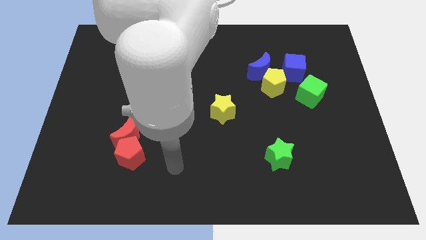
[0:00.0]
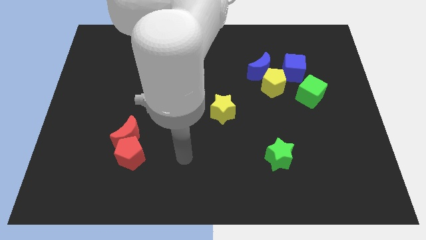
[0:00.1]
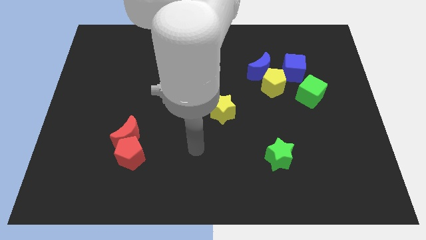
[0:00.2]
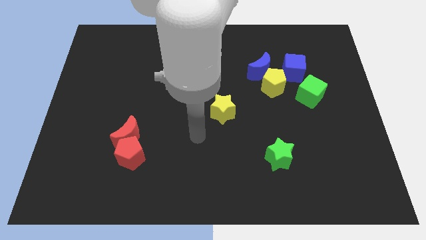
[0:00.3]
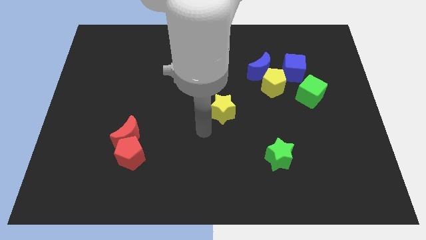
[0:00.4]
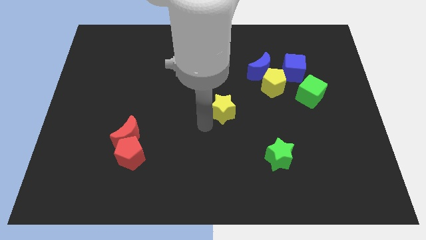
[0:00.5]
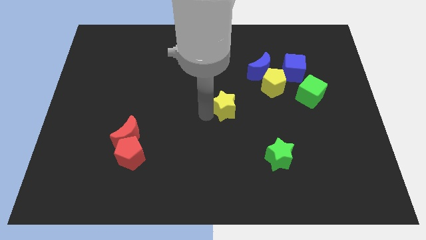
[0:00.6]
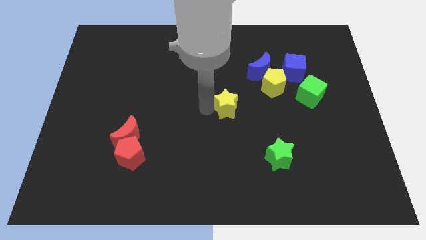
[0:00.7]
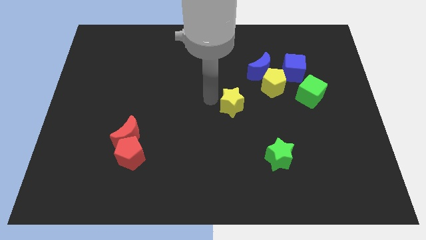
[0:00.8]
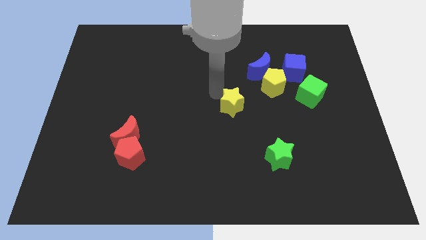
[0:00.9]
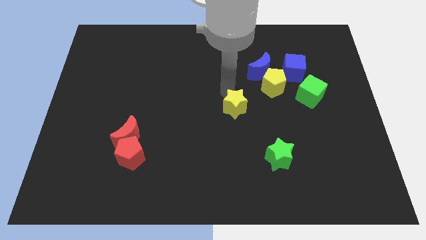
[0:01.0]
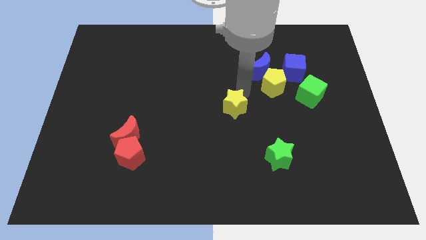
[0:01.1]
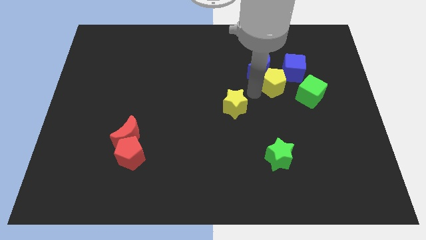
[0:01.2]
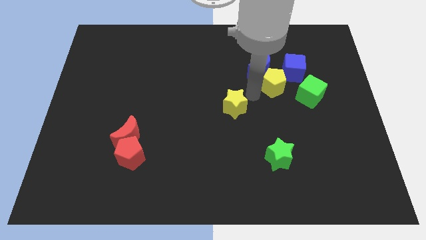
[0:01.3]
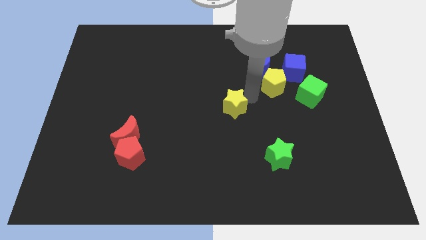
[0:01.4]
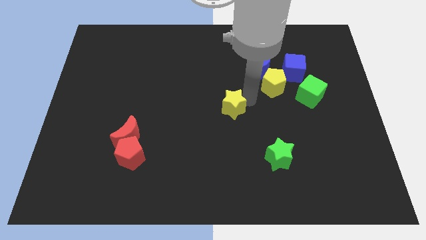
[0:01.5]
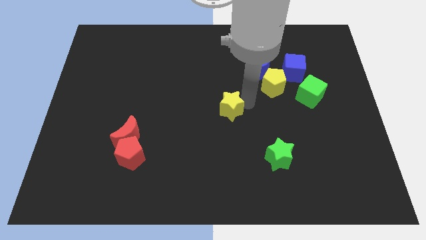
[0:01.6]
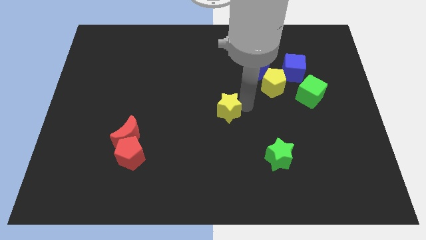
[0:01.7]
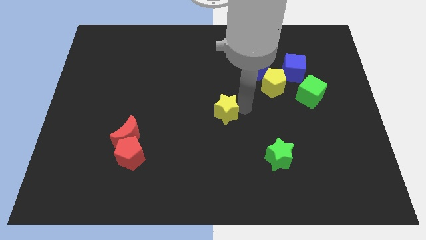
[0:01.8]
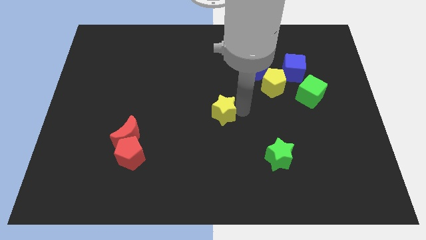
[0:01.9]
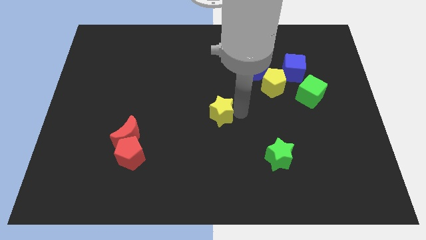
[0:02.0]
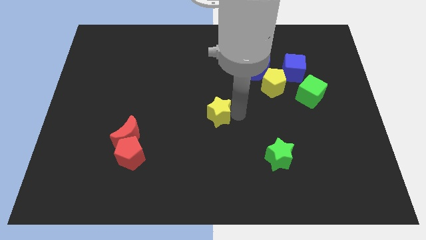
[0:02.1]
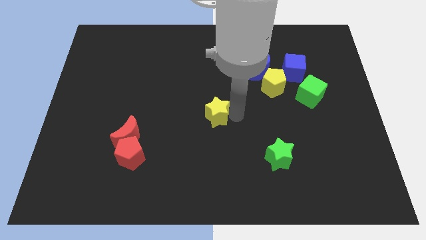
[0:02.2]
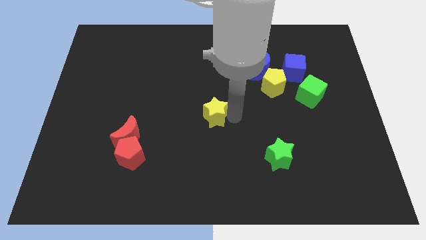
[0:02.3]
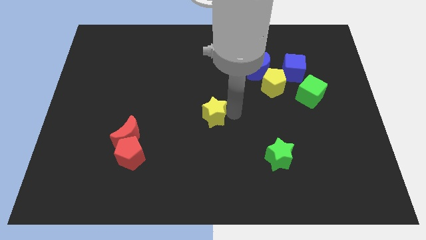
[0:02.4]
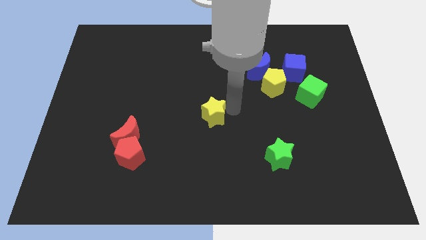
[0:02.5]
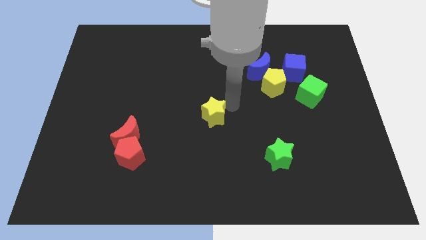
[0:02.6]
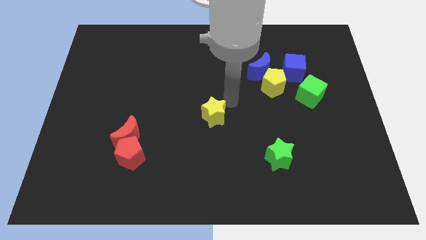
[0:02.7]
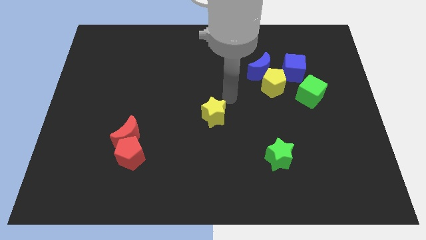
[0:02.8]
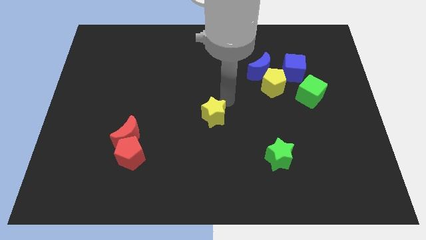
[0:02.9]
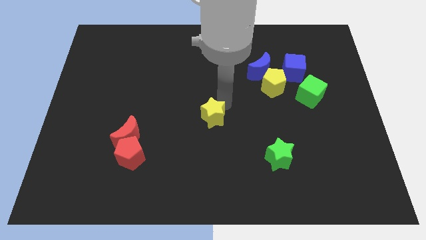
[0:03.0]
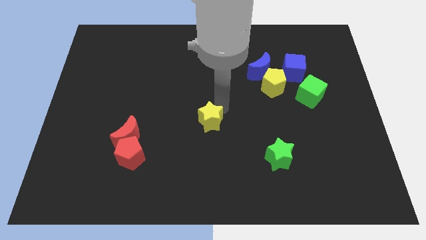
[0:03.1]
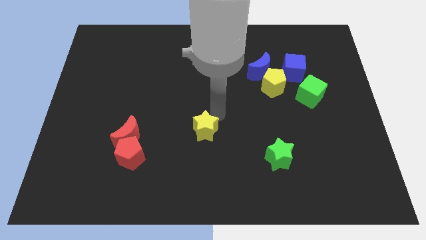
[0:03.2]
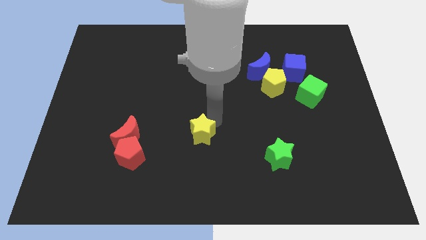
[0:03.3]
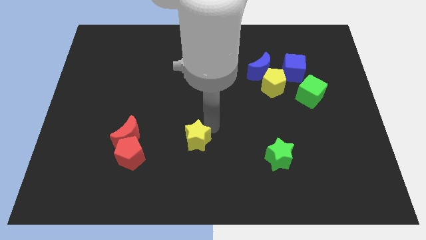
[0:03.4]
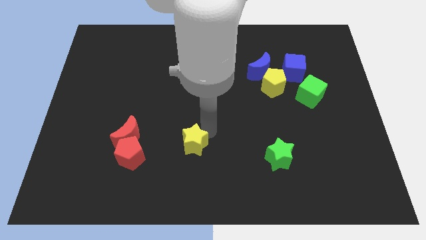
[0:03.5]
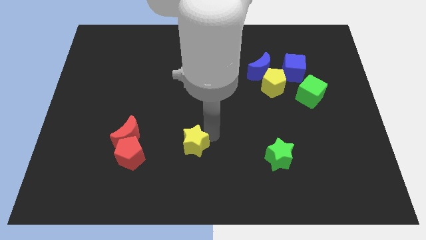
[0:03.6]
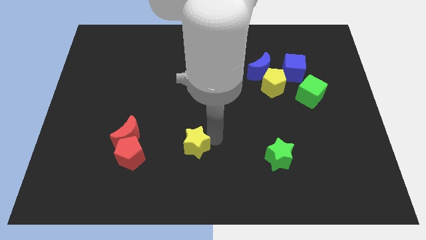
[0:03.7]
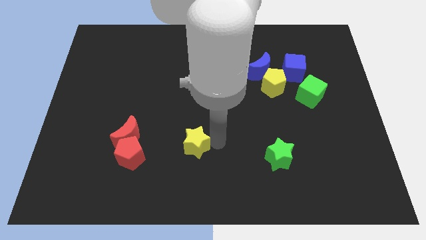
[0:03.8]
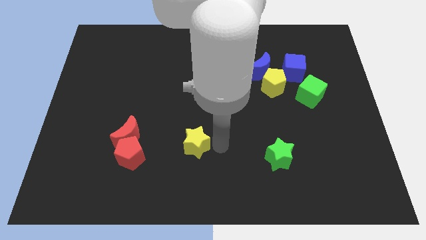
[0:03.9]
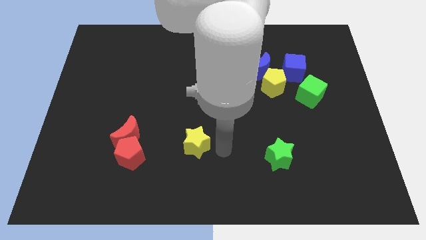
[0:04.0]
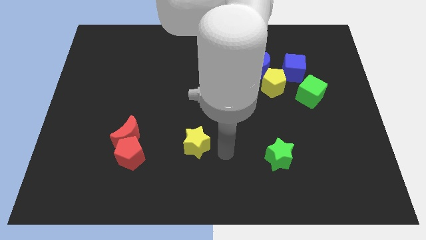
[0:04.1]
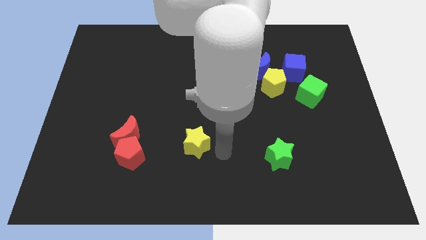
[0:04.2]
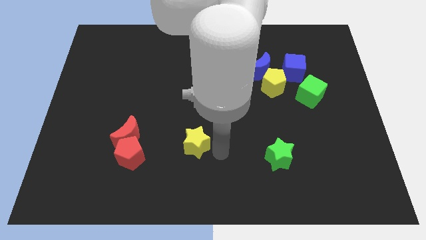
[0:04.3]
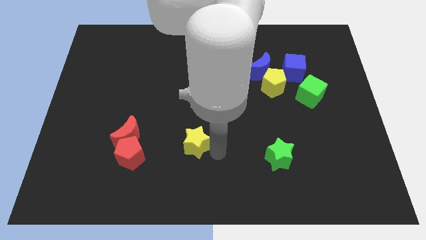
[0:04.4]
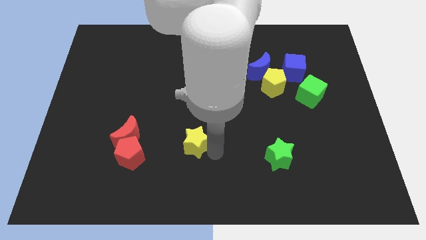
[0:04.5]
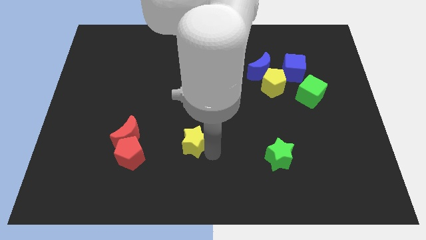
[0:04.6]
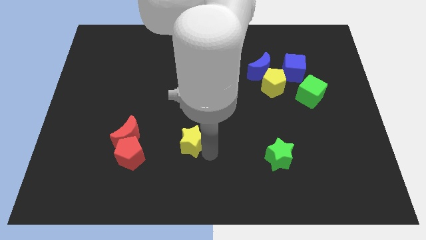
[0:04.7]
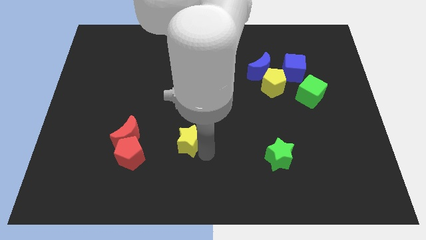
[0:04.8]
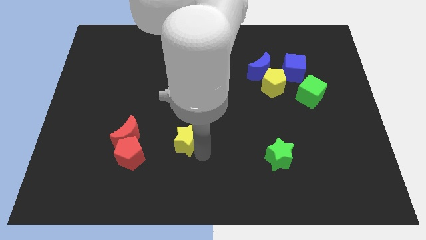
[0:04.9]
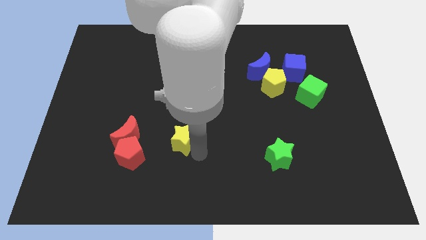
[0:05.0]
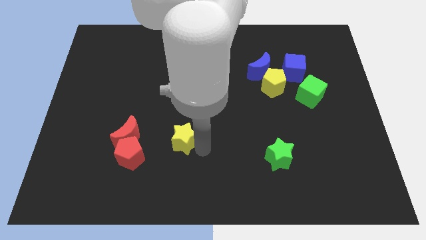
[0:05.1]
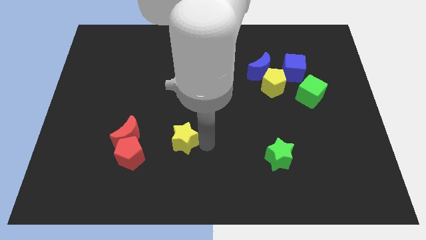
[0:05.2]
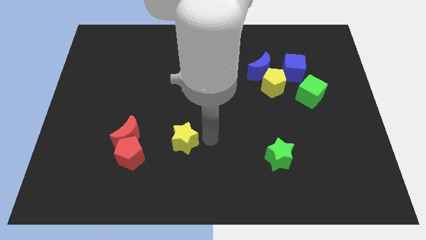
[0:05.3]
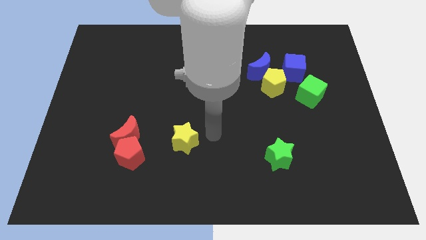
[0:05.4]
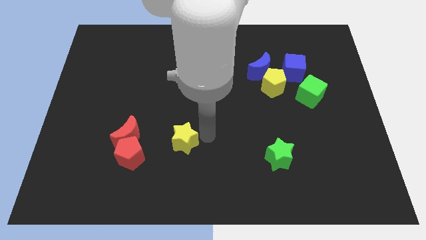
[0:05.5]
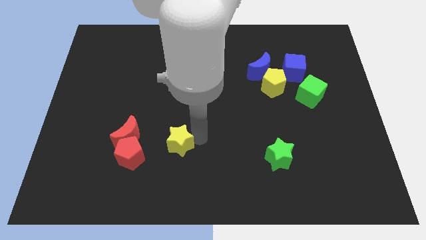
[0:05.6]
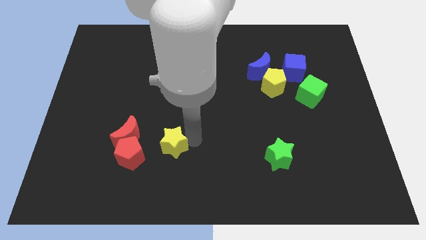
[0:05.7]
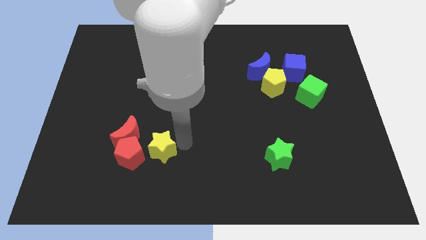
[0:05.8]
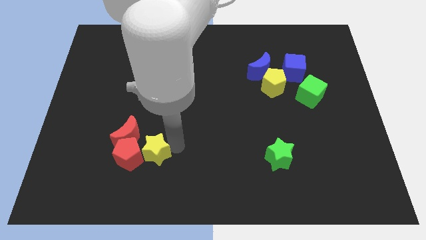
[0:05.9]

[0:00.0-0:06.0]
push the yellow star close to the red pentagon
